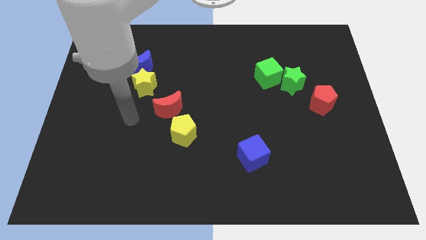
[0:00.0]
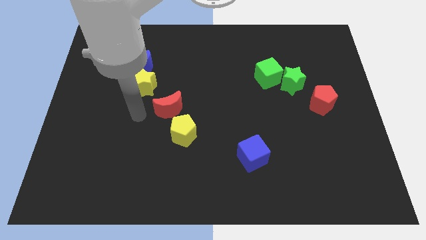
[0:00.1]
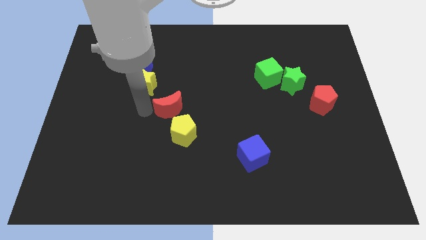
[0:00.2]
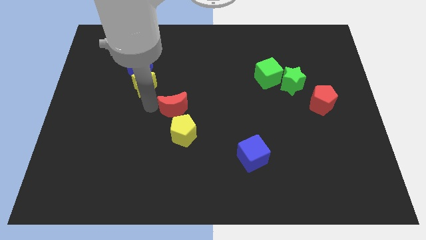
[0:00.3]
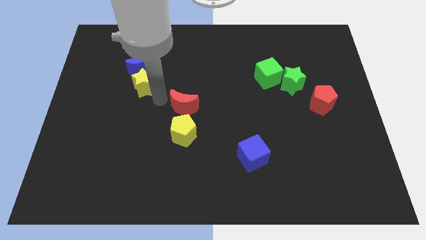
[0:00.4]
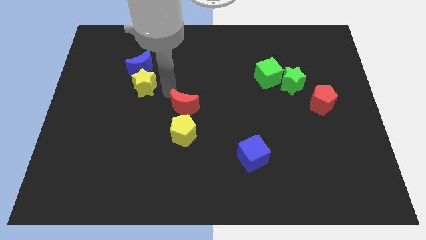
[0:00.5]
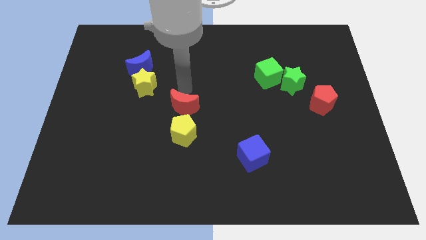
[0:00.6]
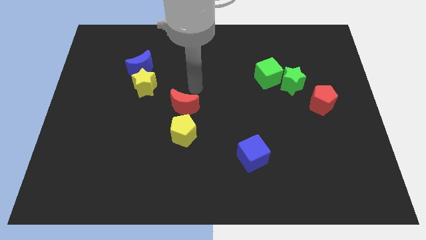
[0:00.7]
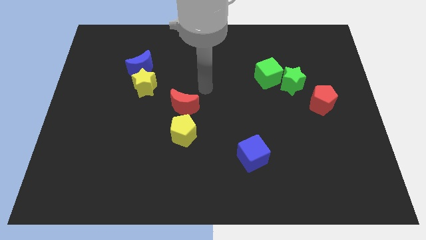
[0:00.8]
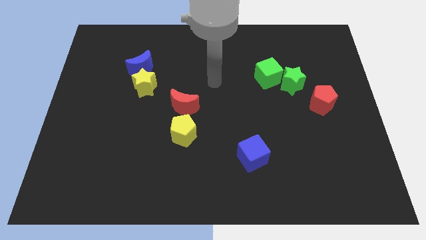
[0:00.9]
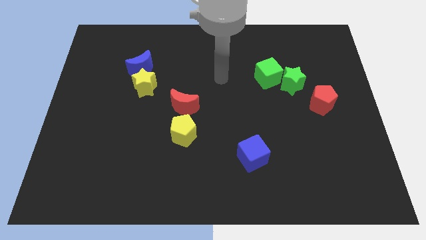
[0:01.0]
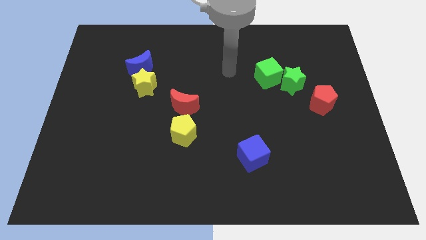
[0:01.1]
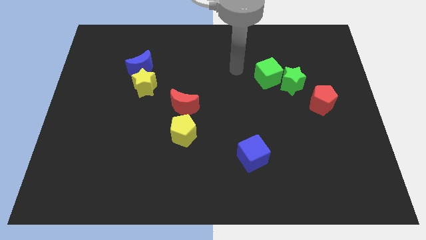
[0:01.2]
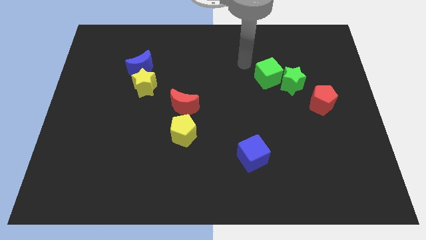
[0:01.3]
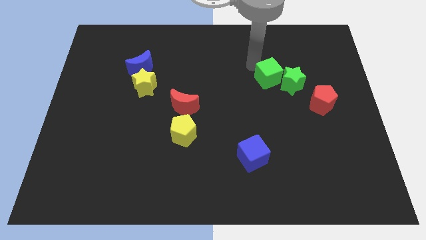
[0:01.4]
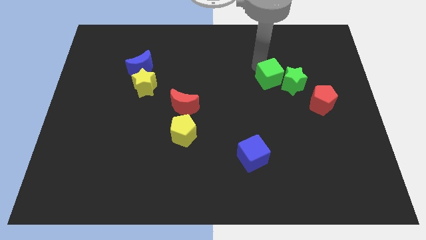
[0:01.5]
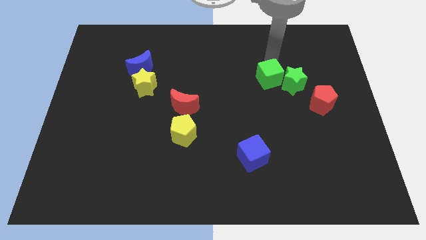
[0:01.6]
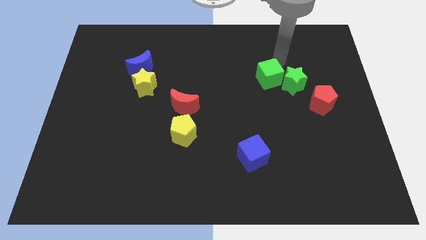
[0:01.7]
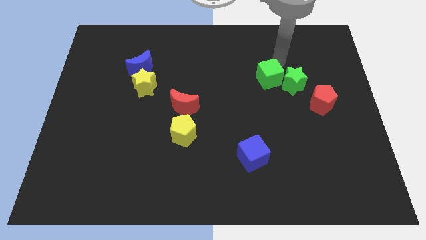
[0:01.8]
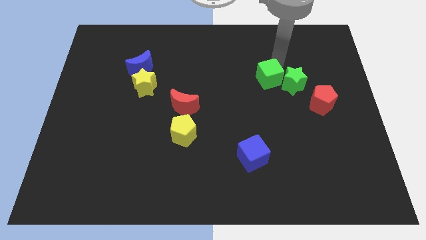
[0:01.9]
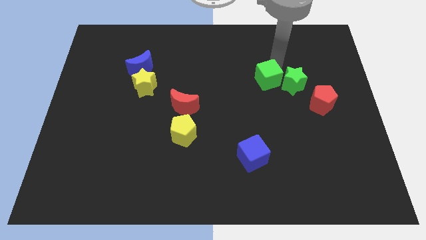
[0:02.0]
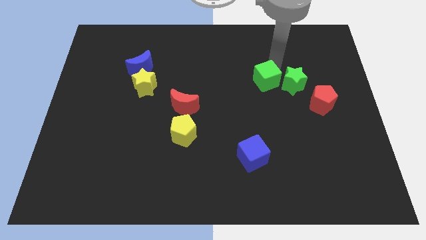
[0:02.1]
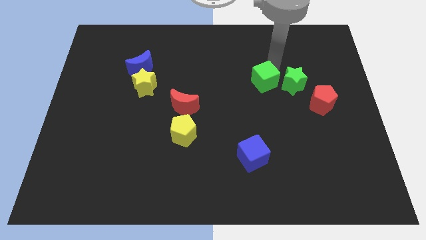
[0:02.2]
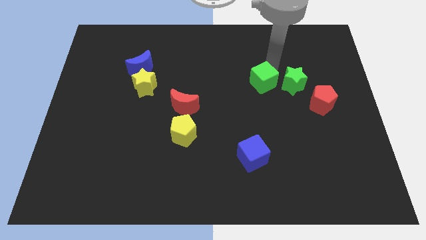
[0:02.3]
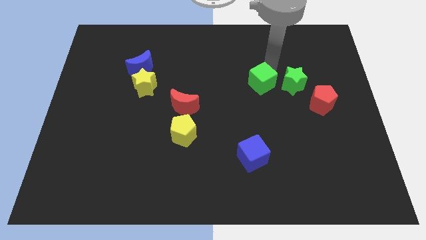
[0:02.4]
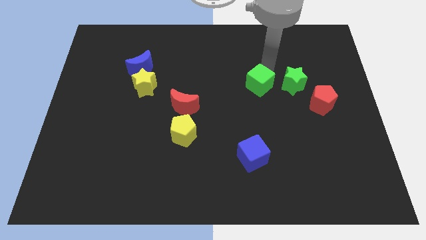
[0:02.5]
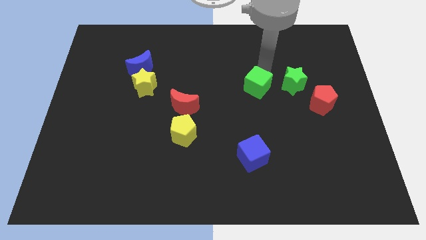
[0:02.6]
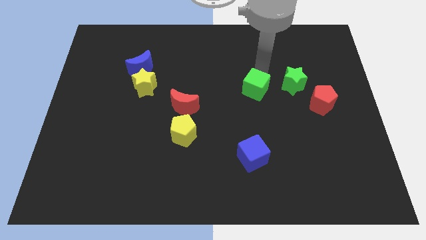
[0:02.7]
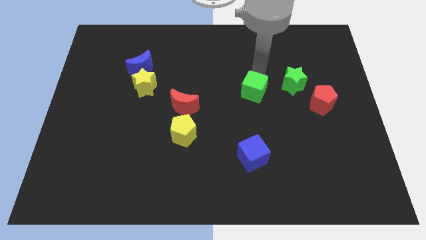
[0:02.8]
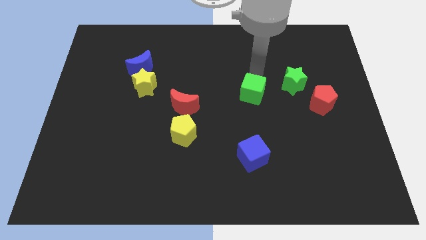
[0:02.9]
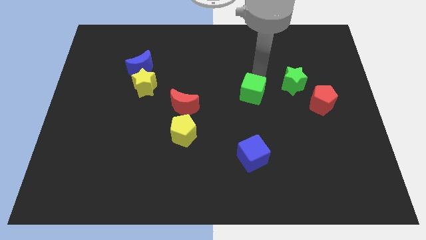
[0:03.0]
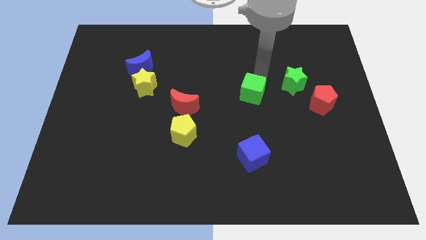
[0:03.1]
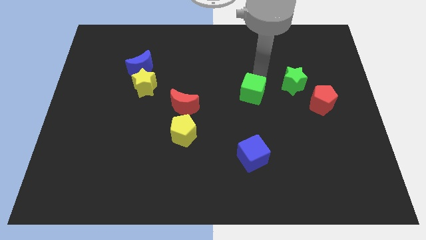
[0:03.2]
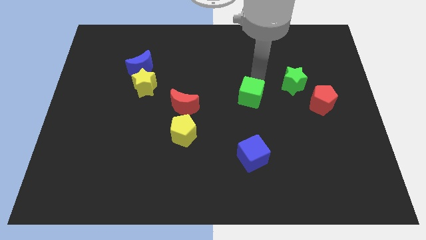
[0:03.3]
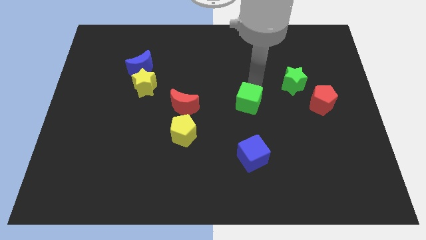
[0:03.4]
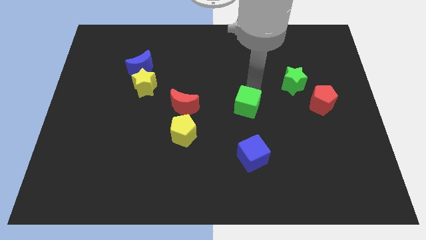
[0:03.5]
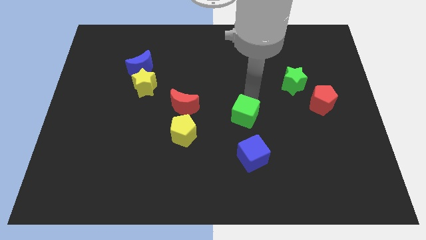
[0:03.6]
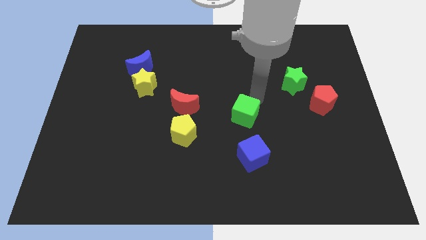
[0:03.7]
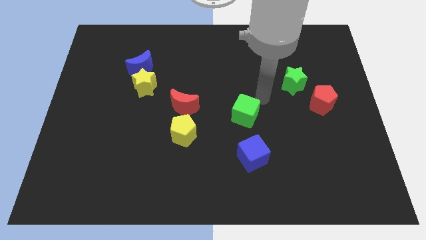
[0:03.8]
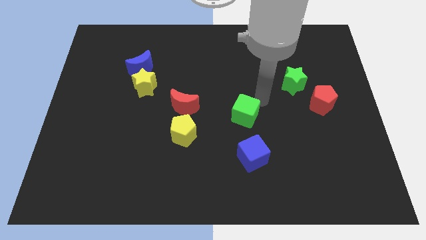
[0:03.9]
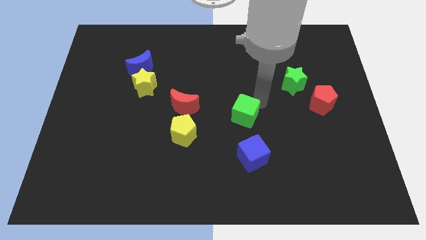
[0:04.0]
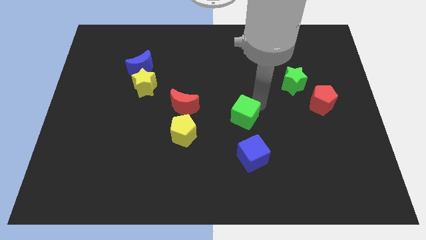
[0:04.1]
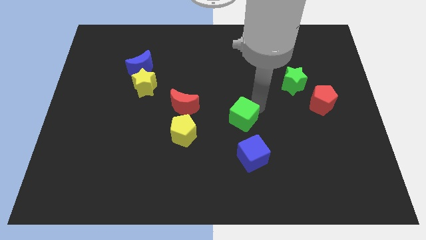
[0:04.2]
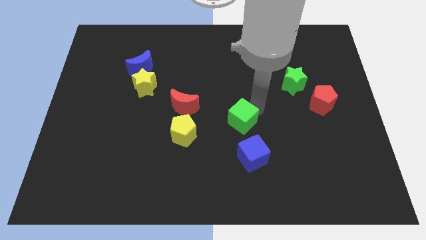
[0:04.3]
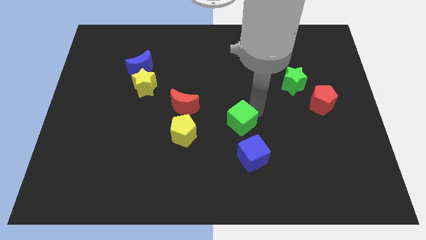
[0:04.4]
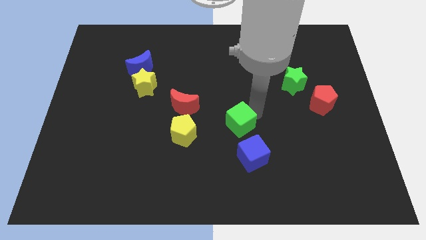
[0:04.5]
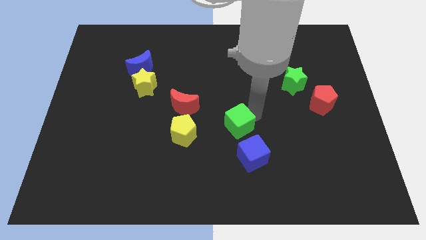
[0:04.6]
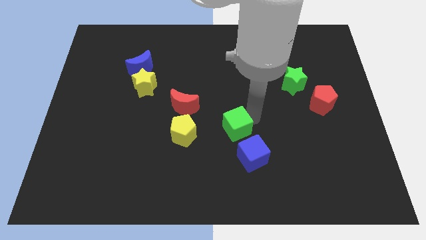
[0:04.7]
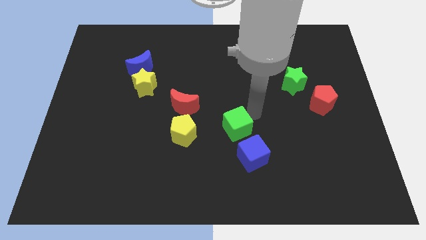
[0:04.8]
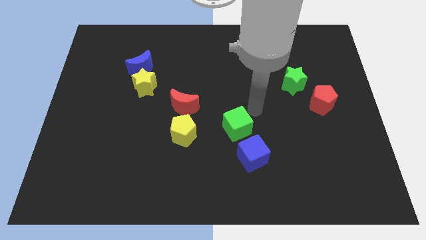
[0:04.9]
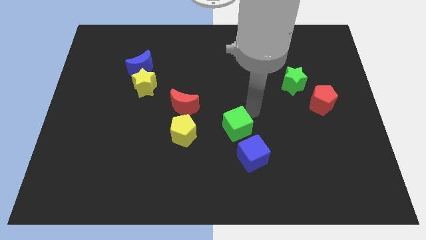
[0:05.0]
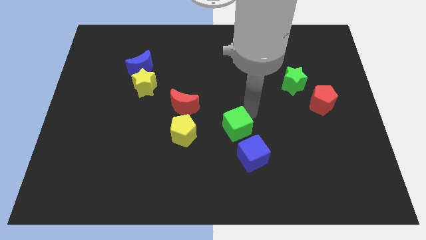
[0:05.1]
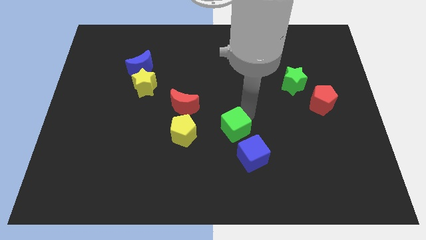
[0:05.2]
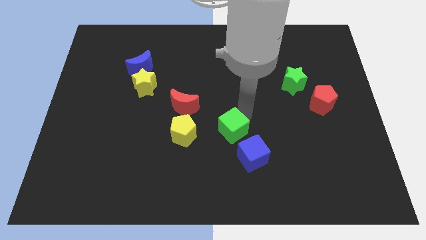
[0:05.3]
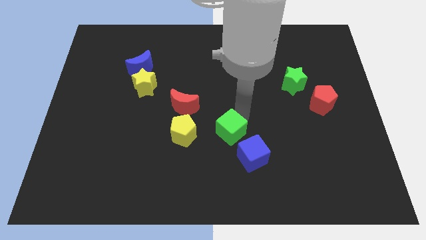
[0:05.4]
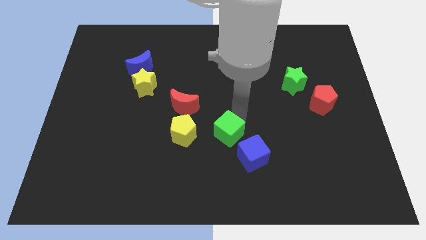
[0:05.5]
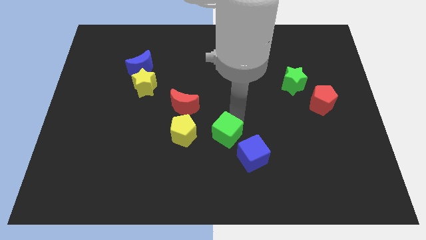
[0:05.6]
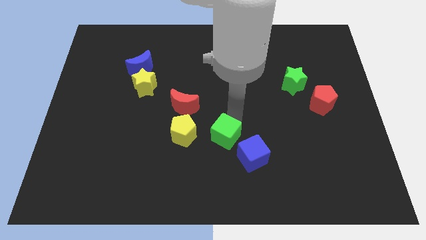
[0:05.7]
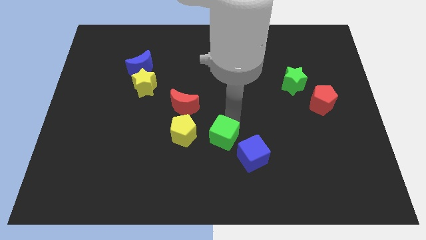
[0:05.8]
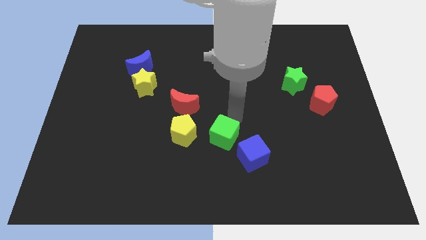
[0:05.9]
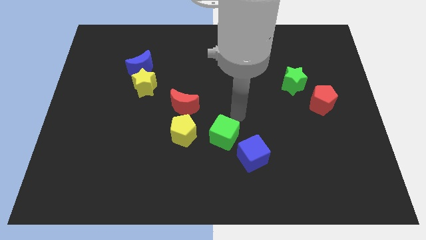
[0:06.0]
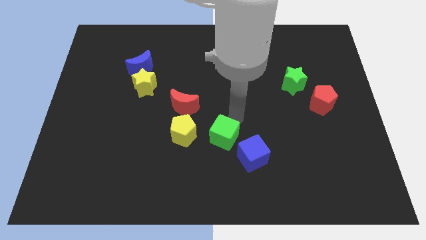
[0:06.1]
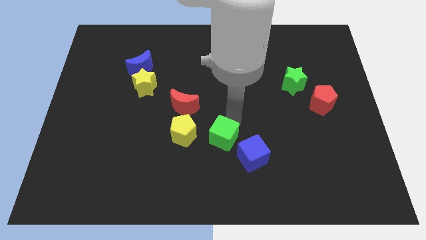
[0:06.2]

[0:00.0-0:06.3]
move the green cube to the left of the blue cube

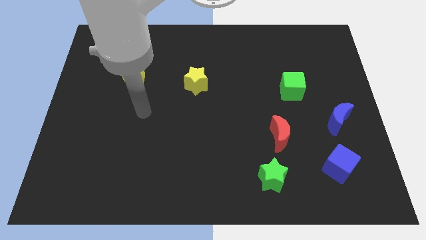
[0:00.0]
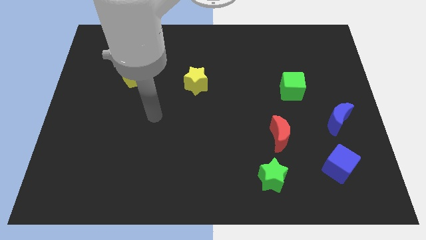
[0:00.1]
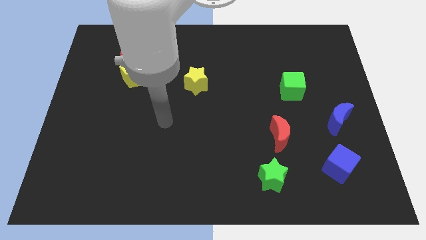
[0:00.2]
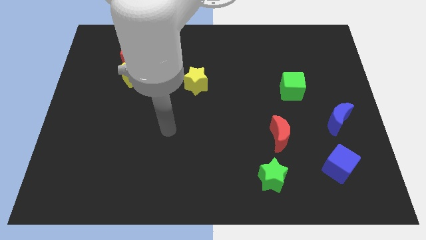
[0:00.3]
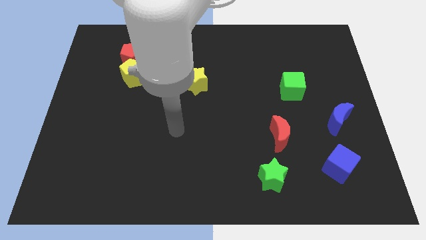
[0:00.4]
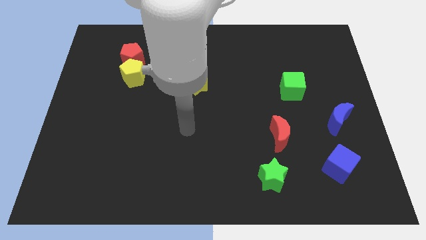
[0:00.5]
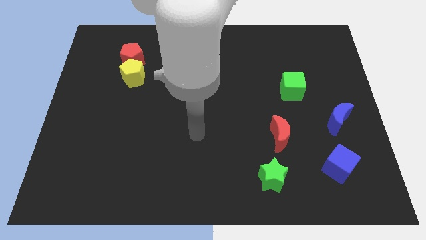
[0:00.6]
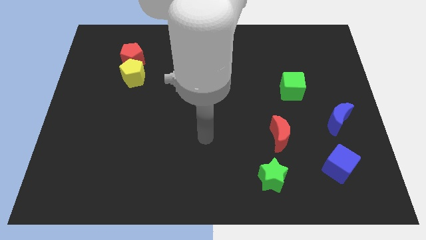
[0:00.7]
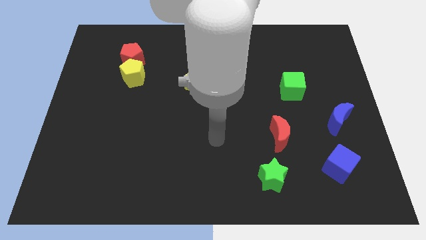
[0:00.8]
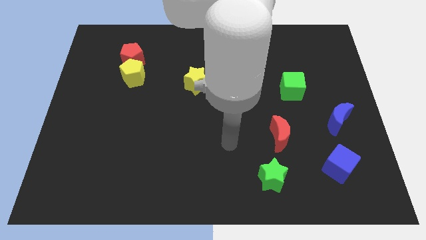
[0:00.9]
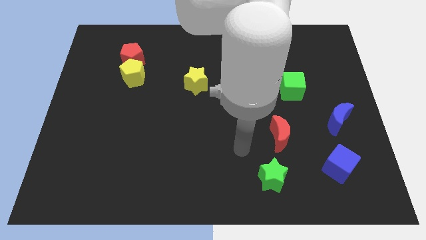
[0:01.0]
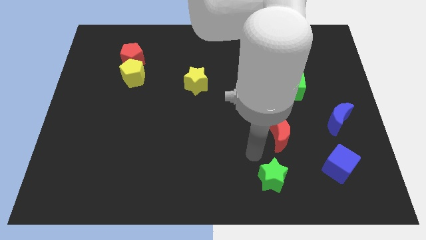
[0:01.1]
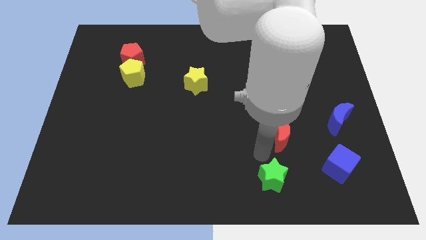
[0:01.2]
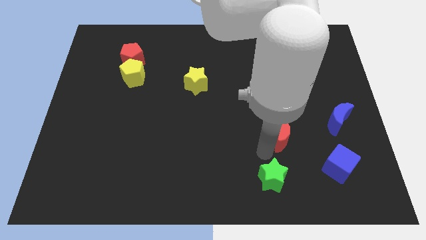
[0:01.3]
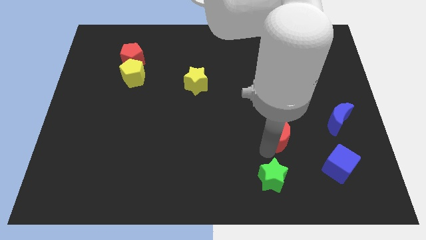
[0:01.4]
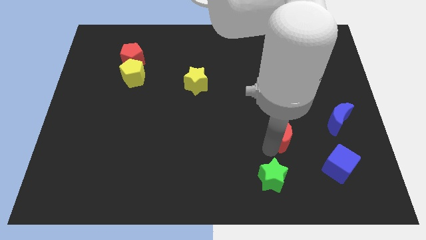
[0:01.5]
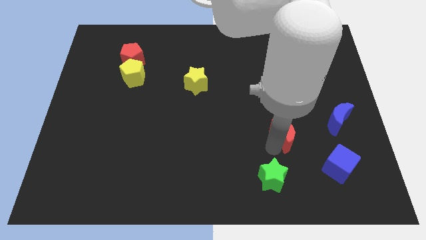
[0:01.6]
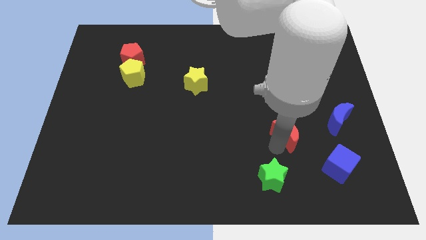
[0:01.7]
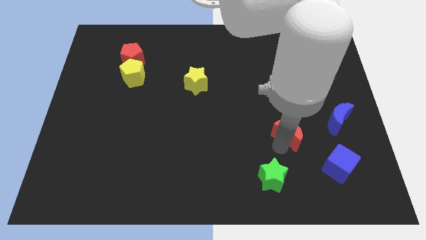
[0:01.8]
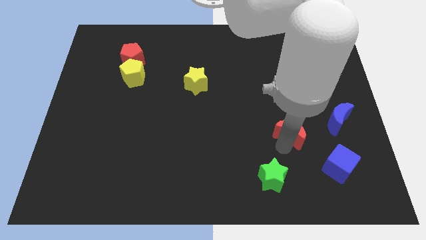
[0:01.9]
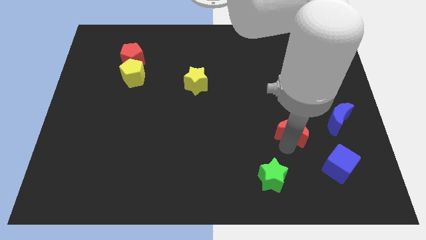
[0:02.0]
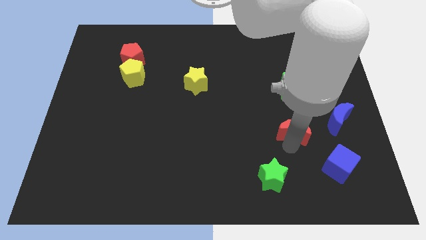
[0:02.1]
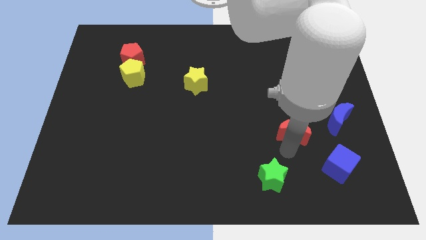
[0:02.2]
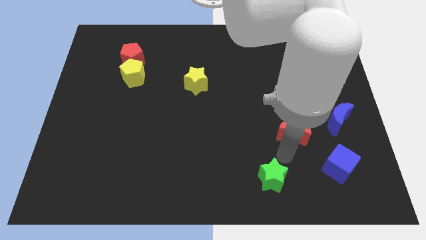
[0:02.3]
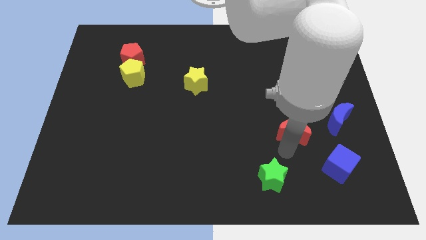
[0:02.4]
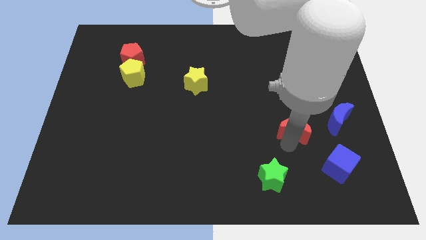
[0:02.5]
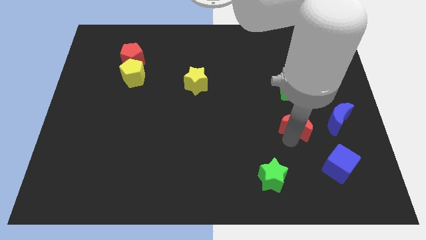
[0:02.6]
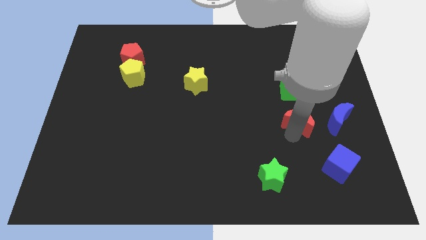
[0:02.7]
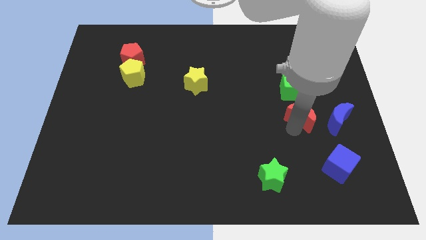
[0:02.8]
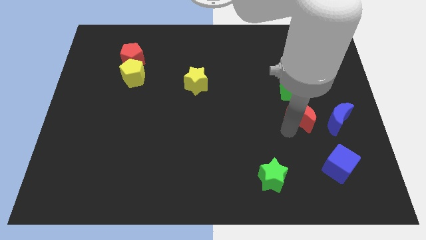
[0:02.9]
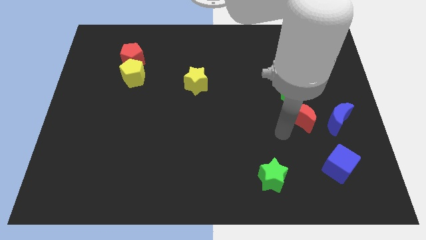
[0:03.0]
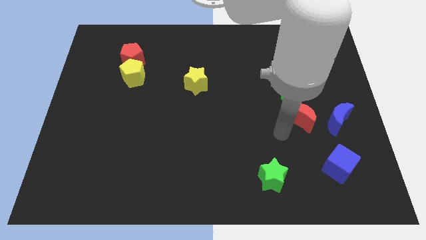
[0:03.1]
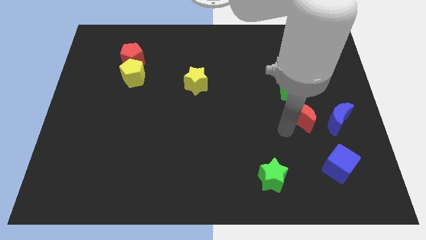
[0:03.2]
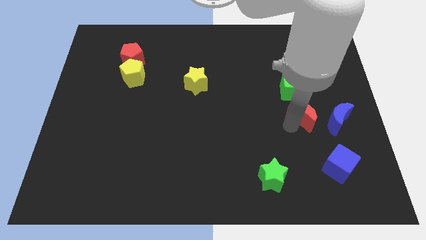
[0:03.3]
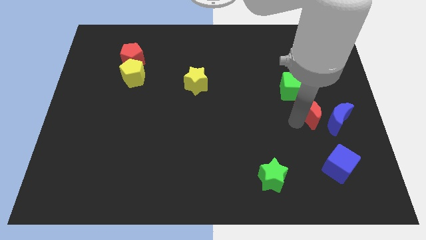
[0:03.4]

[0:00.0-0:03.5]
move the red moon to the bottom right of the green cube
